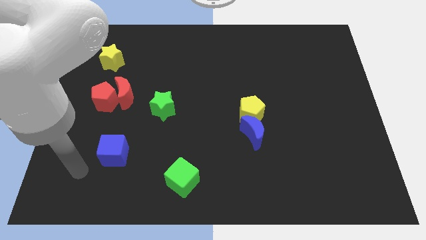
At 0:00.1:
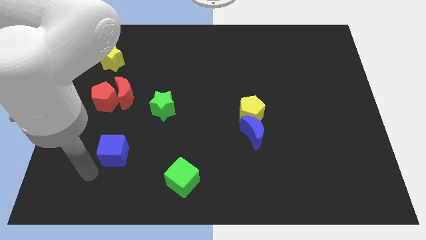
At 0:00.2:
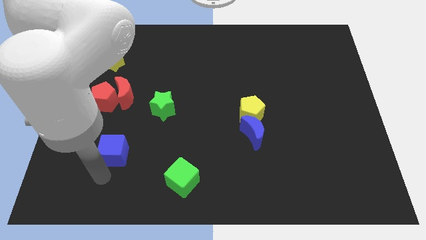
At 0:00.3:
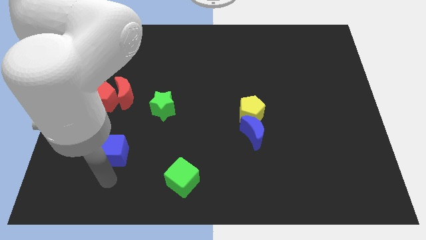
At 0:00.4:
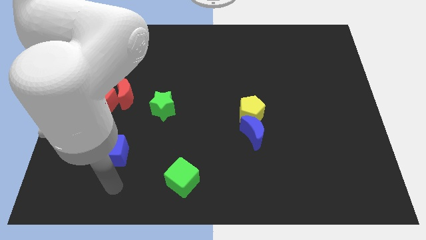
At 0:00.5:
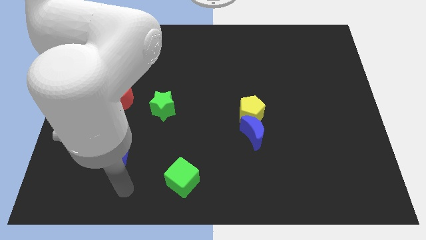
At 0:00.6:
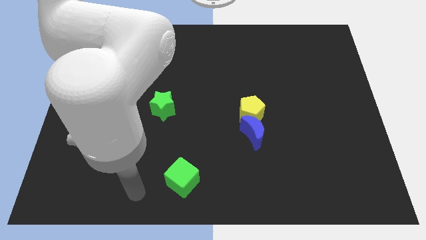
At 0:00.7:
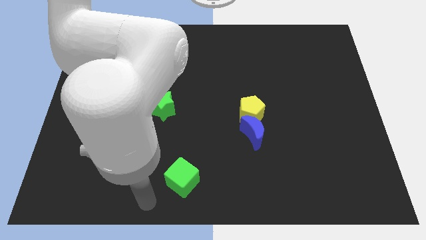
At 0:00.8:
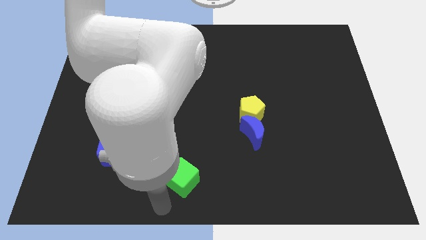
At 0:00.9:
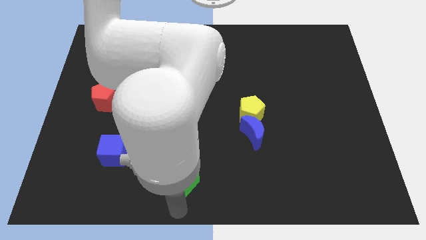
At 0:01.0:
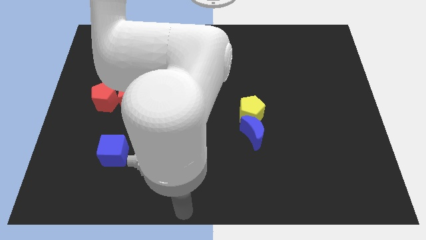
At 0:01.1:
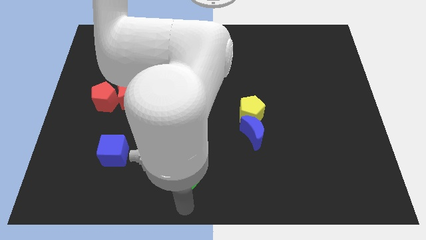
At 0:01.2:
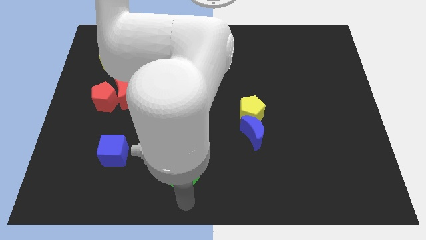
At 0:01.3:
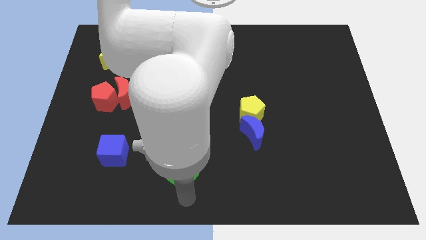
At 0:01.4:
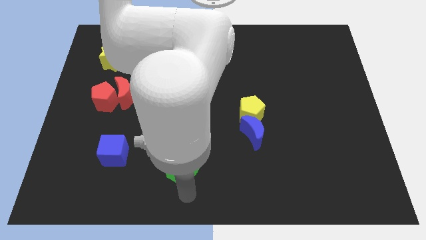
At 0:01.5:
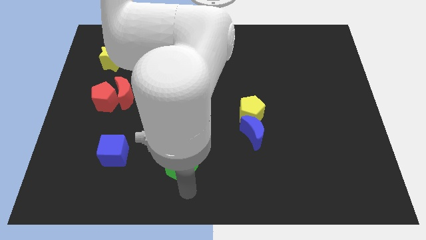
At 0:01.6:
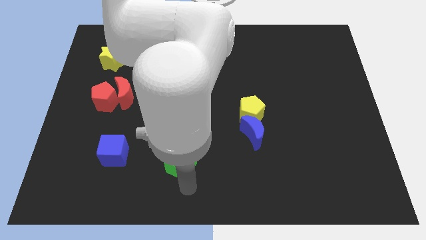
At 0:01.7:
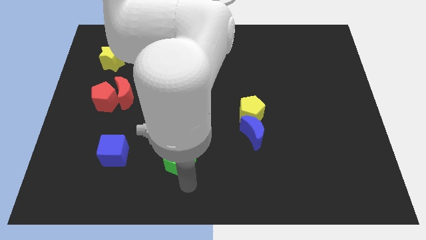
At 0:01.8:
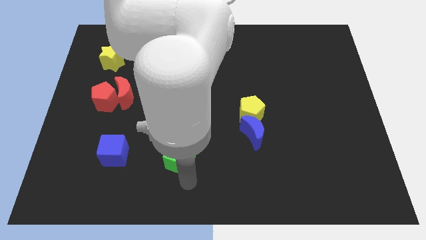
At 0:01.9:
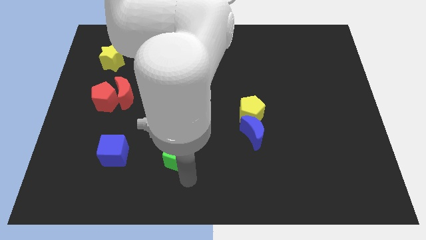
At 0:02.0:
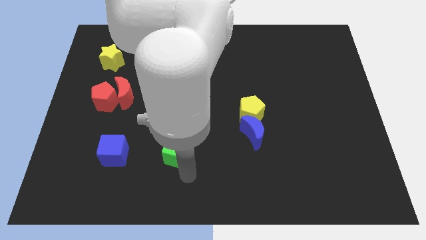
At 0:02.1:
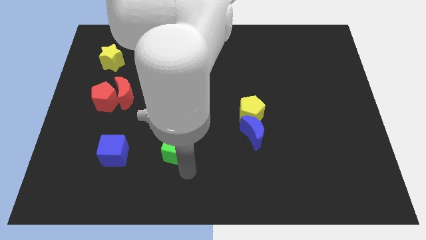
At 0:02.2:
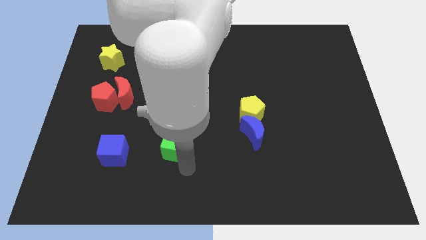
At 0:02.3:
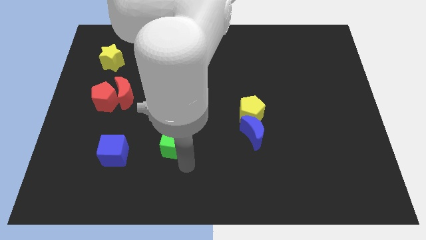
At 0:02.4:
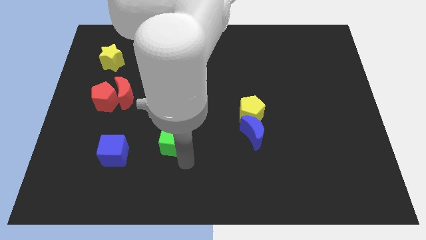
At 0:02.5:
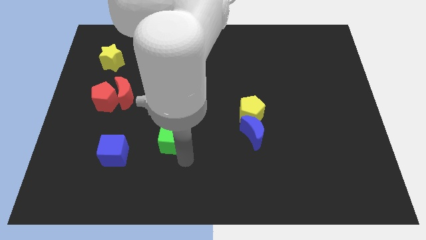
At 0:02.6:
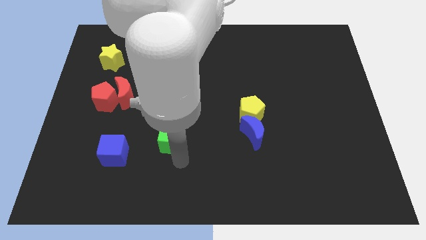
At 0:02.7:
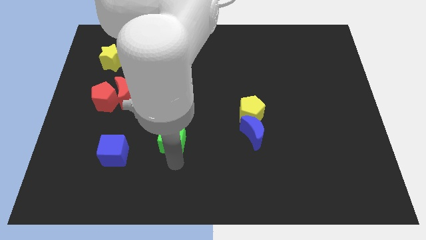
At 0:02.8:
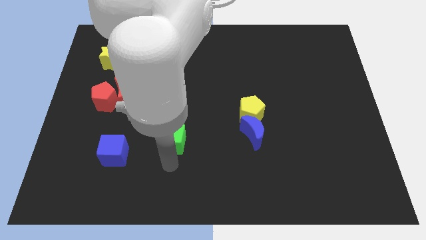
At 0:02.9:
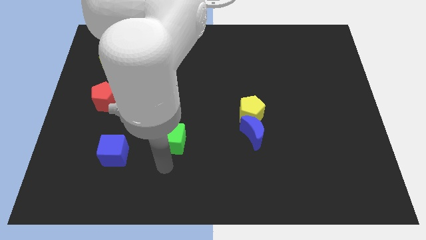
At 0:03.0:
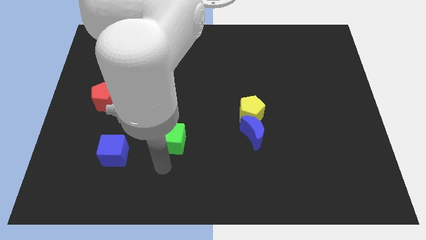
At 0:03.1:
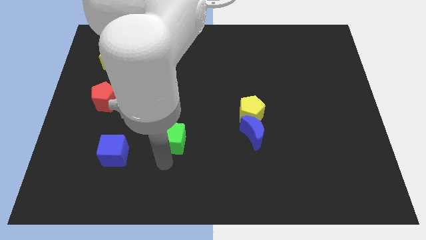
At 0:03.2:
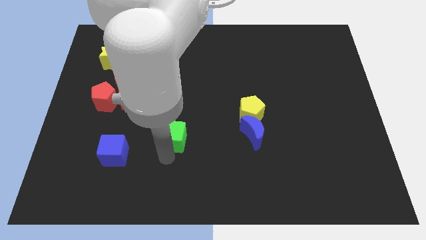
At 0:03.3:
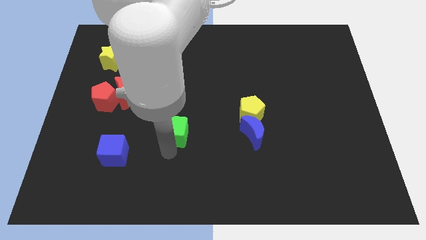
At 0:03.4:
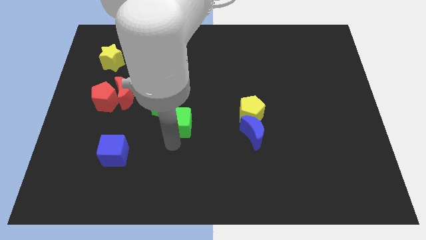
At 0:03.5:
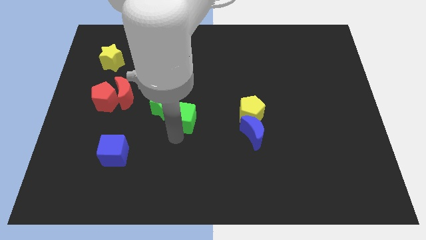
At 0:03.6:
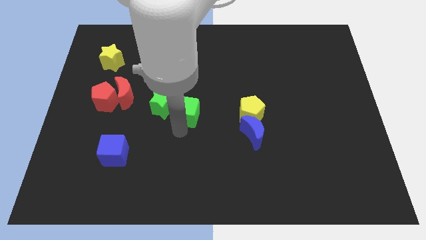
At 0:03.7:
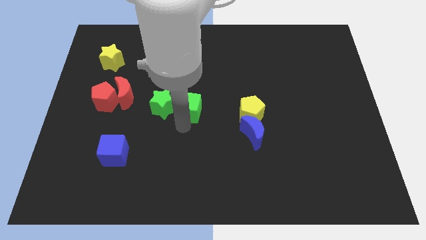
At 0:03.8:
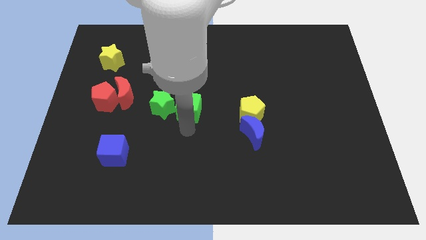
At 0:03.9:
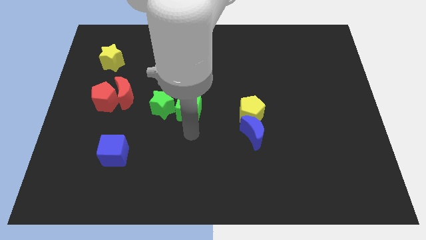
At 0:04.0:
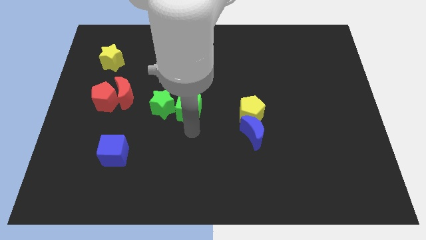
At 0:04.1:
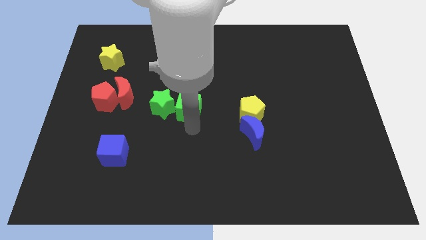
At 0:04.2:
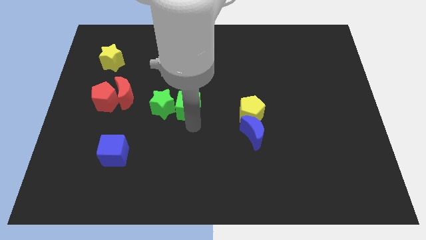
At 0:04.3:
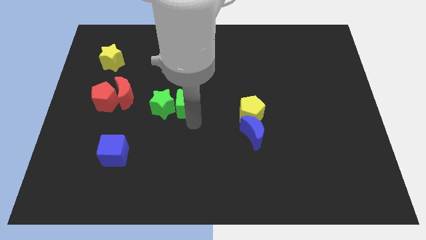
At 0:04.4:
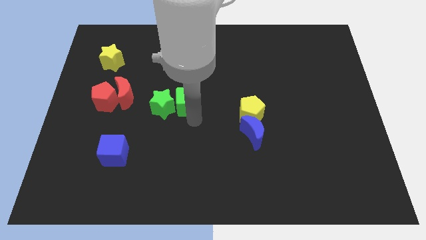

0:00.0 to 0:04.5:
slide the green cube upwards

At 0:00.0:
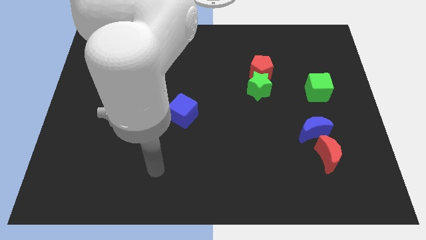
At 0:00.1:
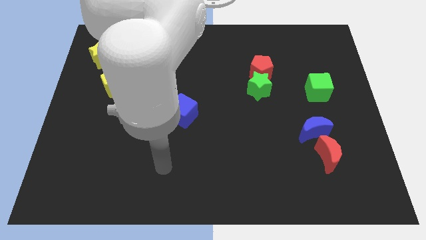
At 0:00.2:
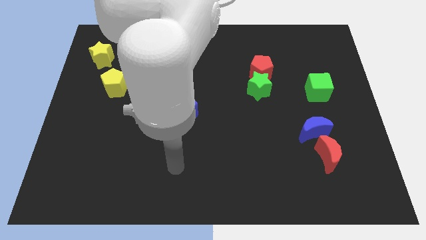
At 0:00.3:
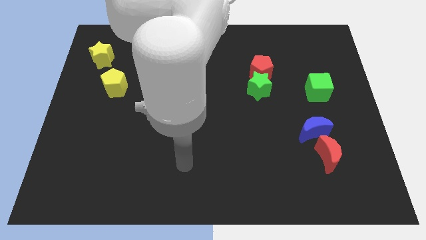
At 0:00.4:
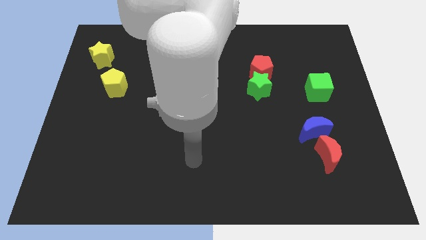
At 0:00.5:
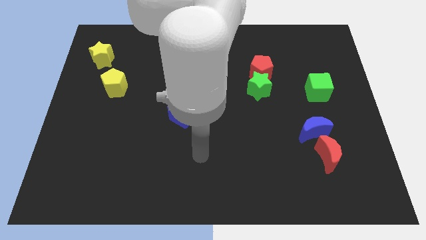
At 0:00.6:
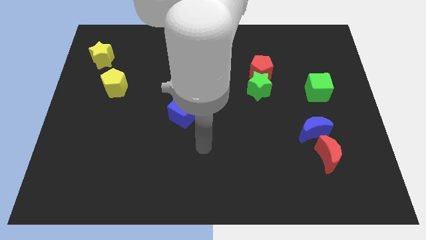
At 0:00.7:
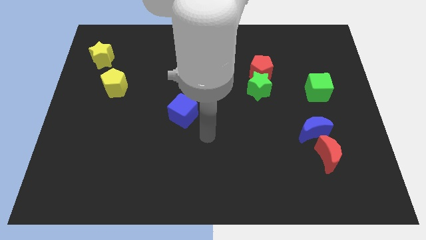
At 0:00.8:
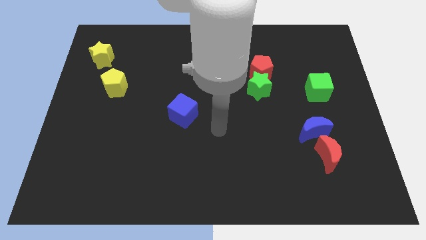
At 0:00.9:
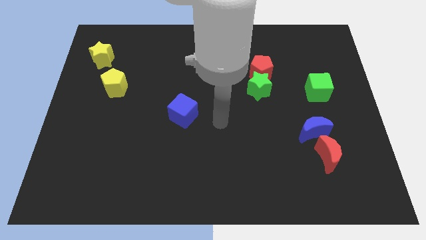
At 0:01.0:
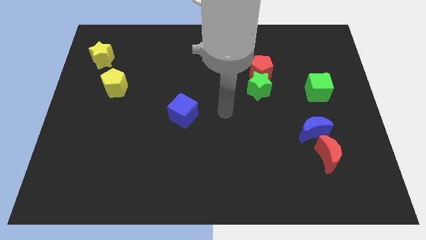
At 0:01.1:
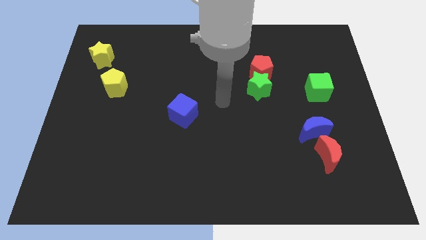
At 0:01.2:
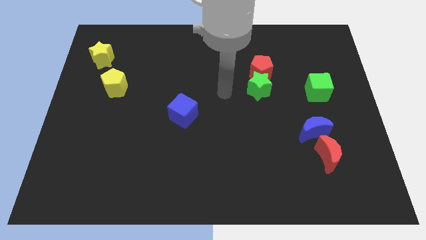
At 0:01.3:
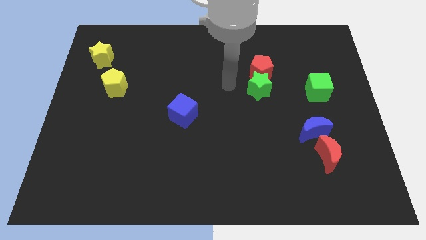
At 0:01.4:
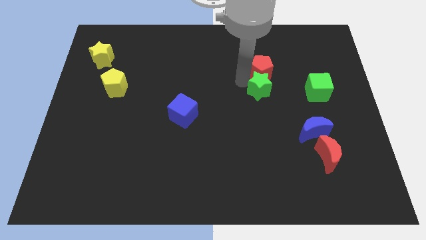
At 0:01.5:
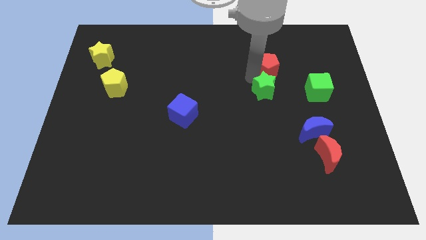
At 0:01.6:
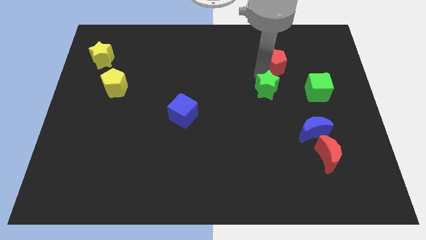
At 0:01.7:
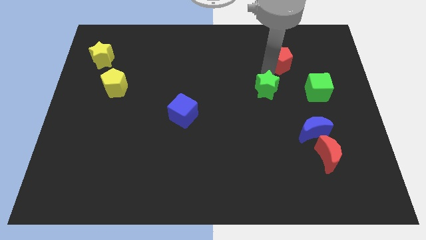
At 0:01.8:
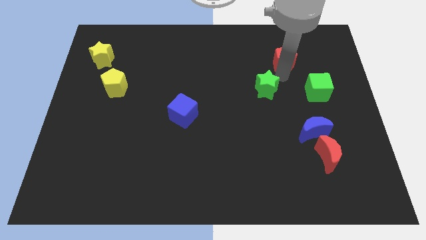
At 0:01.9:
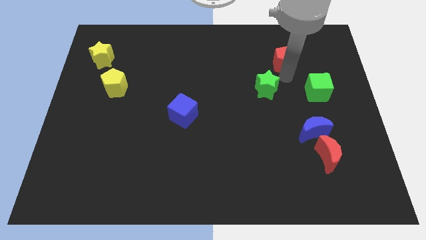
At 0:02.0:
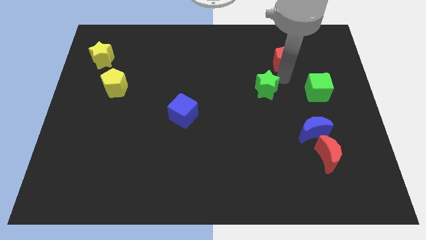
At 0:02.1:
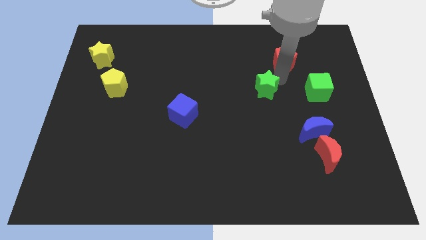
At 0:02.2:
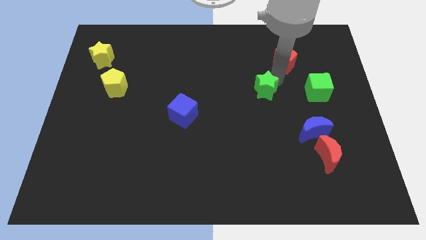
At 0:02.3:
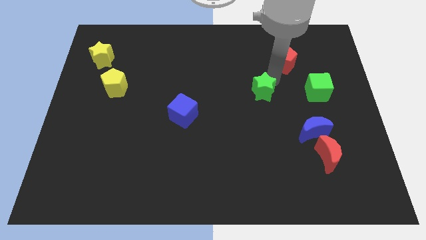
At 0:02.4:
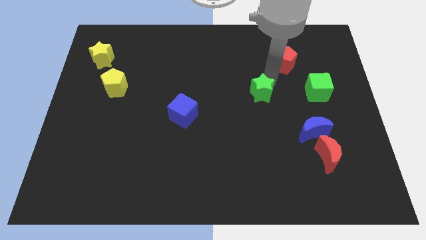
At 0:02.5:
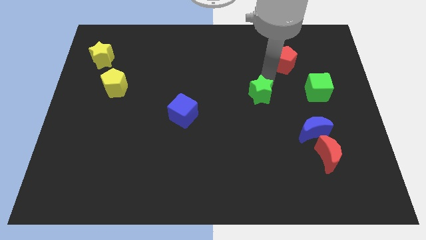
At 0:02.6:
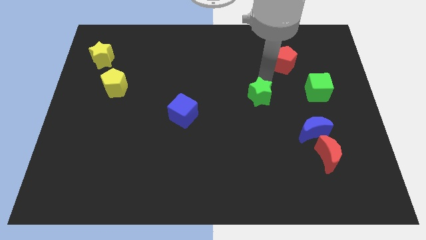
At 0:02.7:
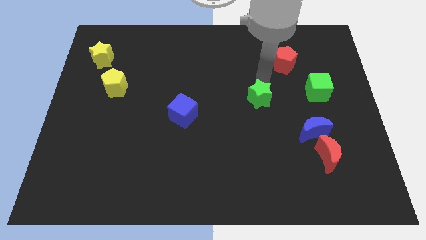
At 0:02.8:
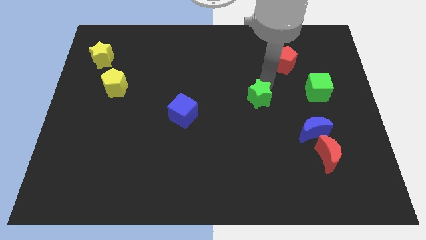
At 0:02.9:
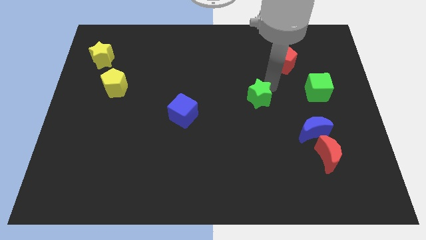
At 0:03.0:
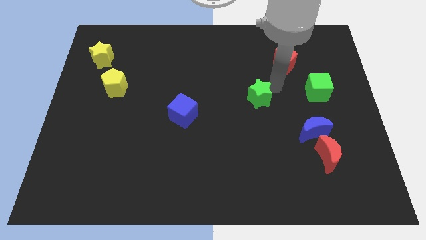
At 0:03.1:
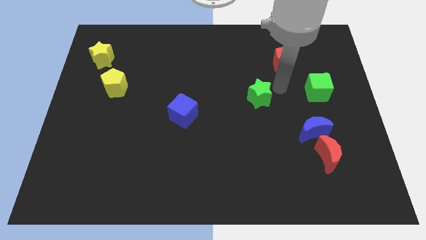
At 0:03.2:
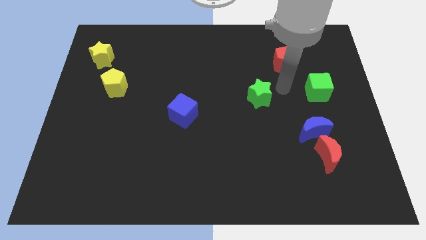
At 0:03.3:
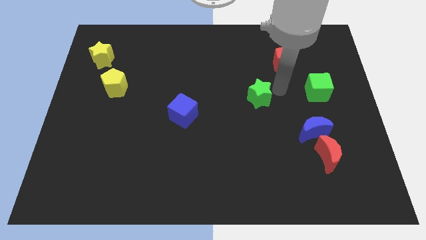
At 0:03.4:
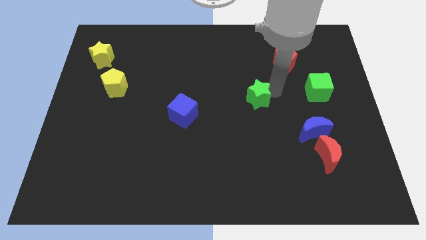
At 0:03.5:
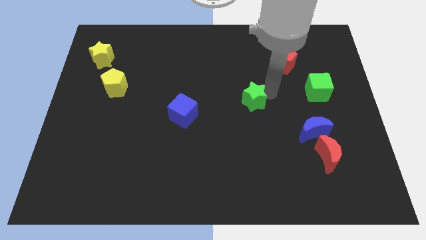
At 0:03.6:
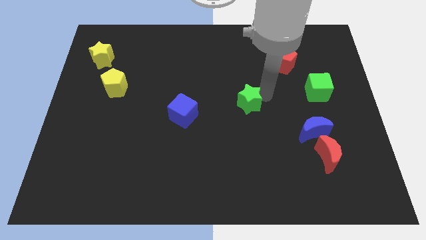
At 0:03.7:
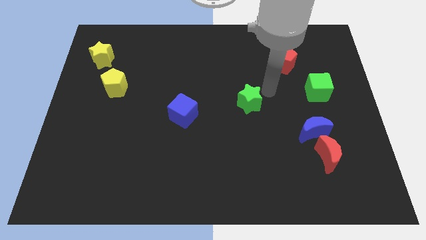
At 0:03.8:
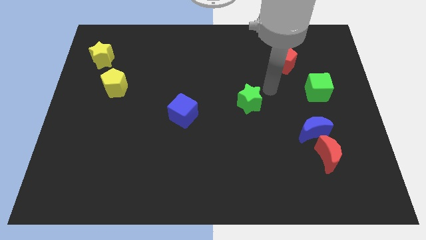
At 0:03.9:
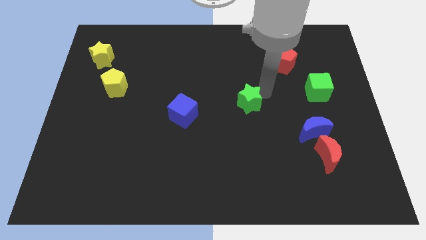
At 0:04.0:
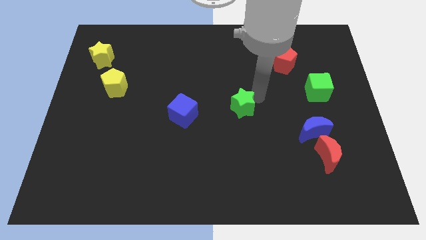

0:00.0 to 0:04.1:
slide the green star downwards and left slightly
